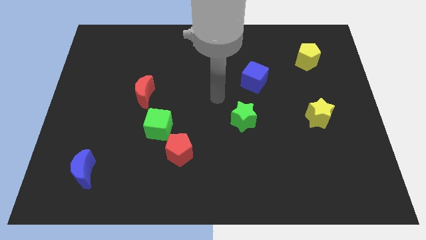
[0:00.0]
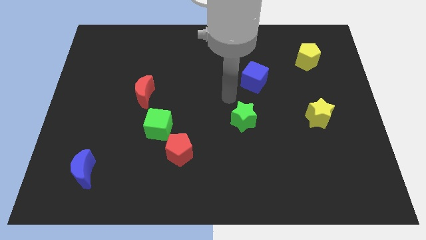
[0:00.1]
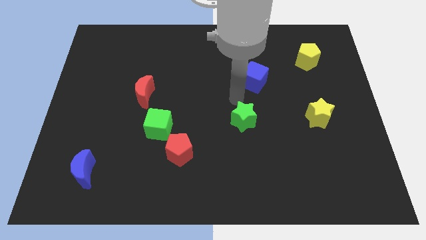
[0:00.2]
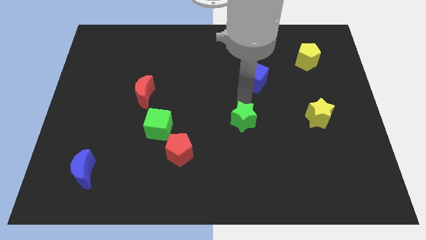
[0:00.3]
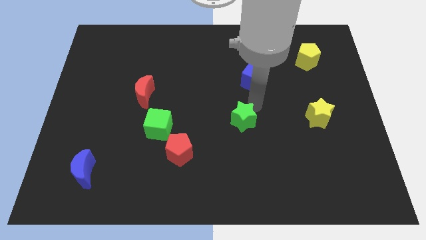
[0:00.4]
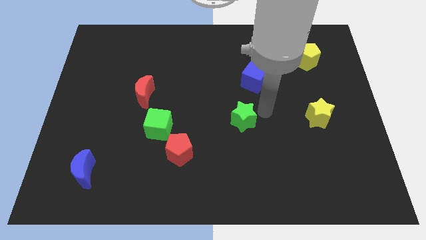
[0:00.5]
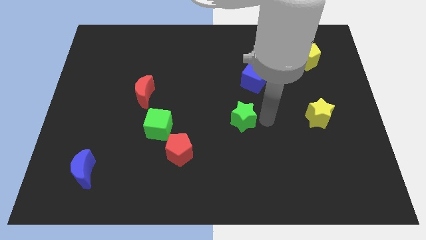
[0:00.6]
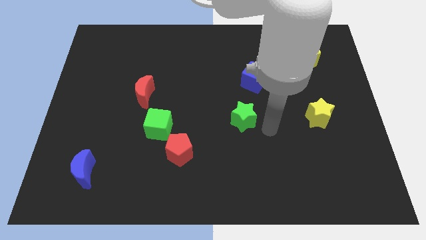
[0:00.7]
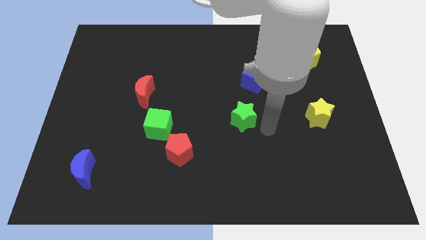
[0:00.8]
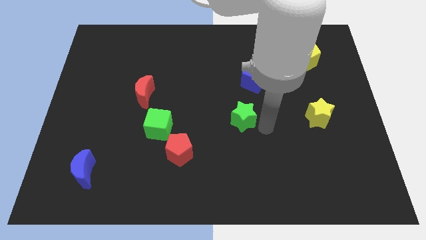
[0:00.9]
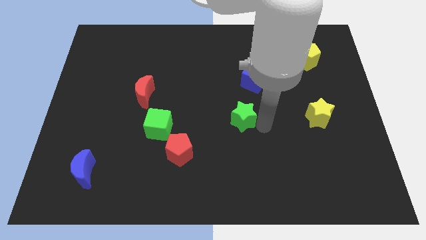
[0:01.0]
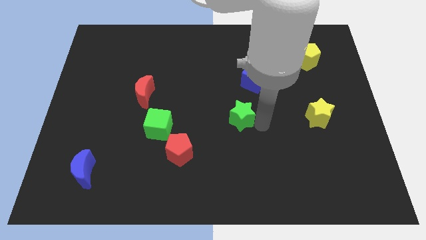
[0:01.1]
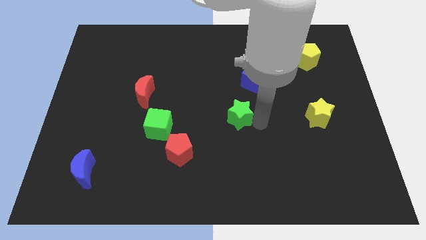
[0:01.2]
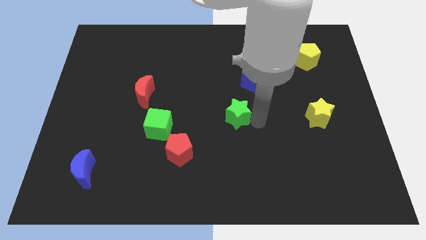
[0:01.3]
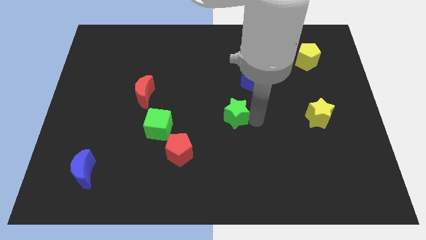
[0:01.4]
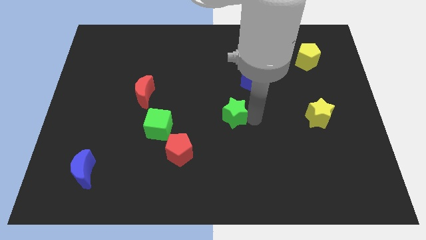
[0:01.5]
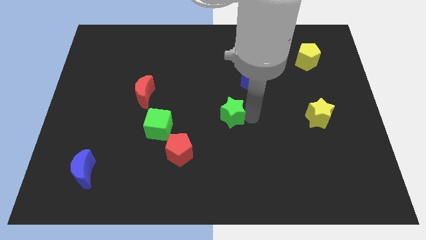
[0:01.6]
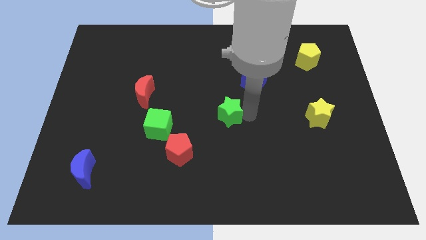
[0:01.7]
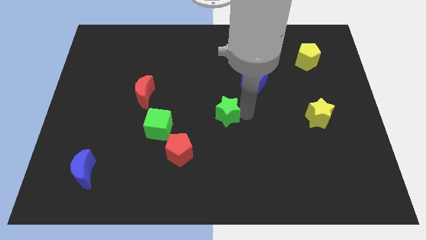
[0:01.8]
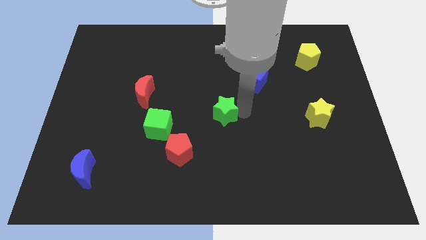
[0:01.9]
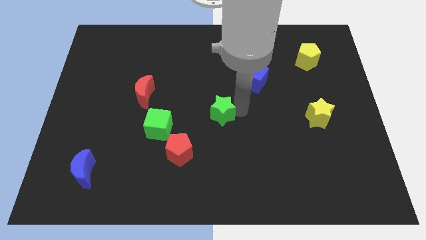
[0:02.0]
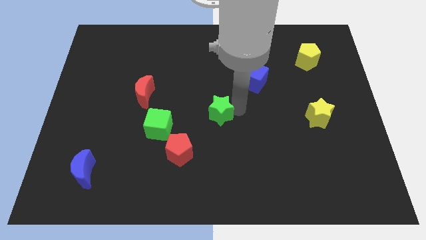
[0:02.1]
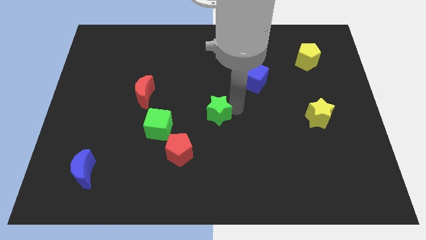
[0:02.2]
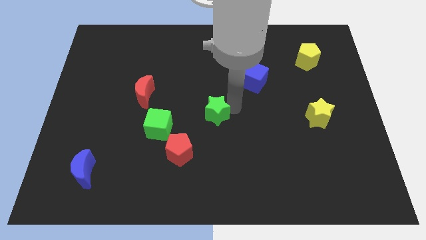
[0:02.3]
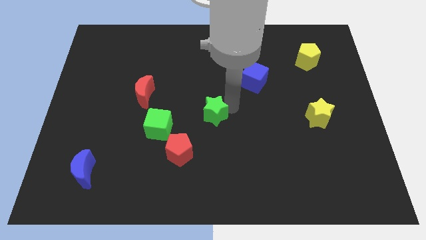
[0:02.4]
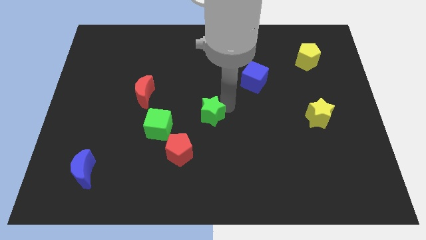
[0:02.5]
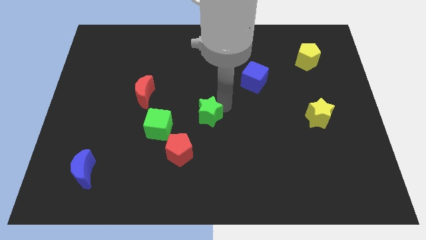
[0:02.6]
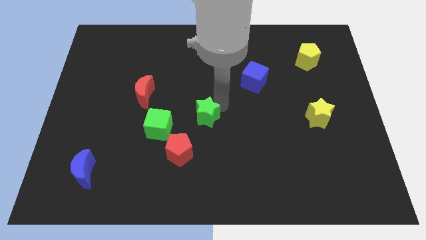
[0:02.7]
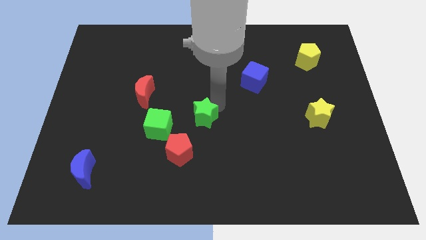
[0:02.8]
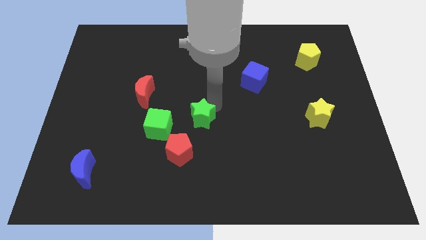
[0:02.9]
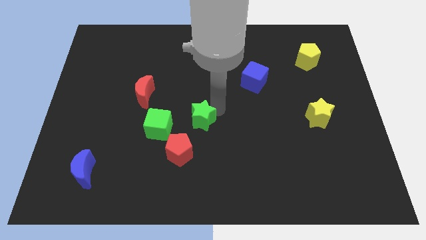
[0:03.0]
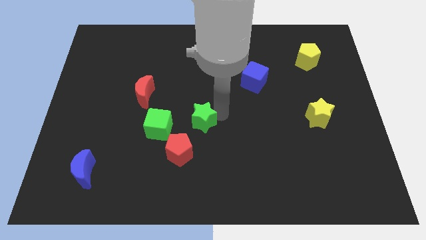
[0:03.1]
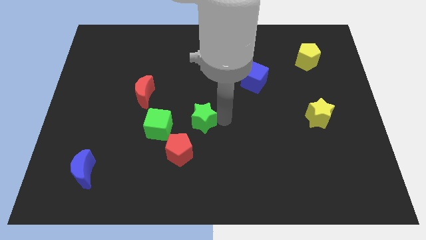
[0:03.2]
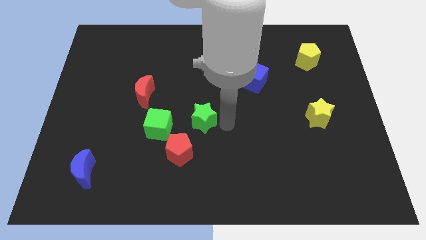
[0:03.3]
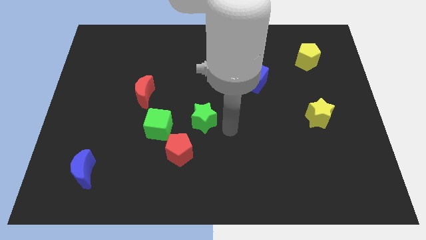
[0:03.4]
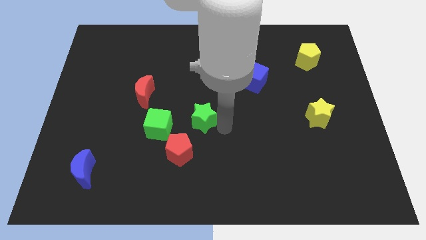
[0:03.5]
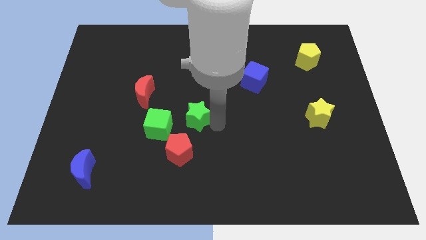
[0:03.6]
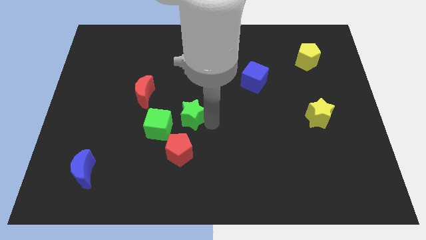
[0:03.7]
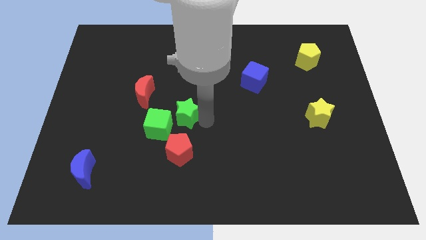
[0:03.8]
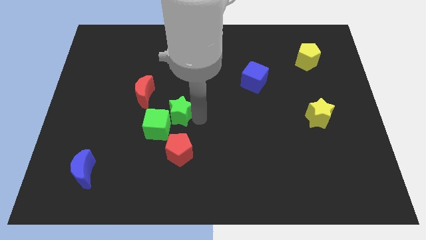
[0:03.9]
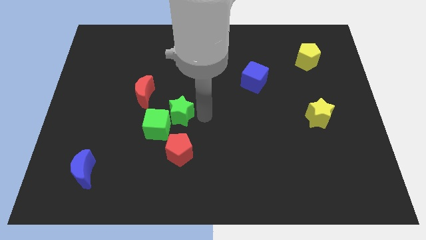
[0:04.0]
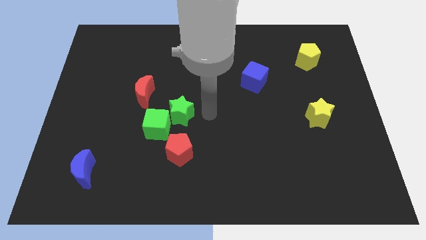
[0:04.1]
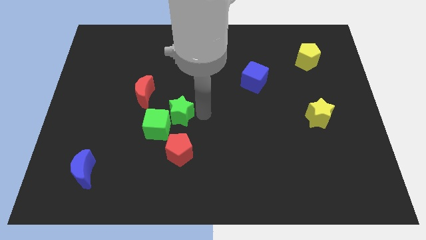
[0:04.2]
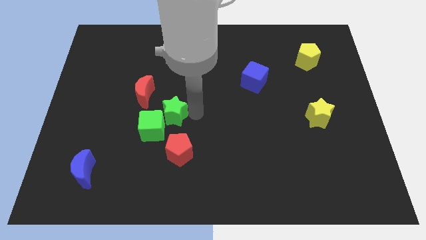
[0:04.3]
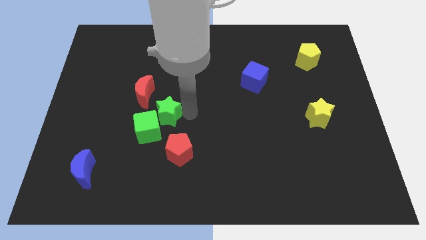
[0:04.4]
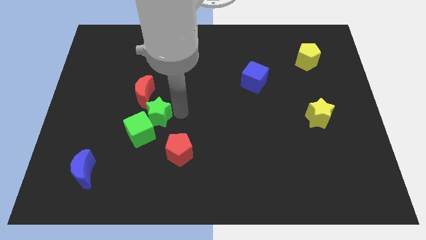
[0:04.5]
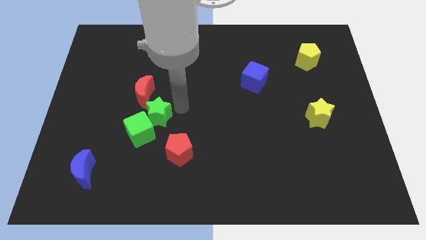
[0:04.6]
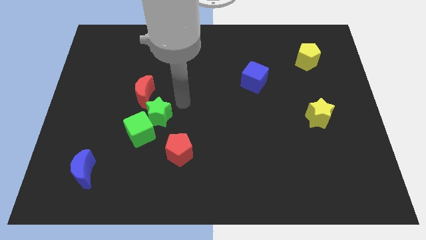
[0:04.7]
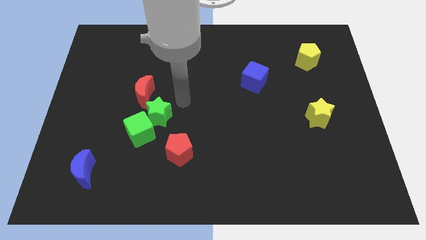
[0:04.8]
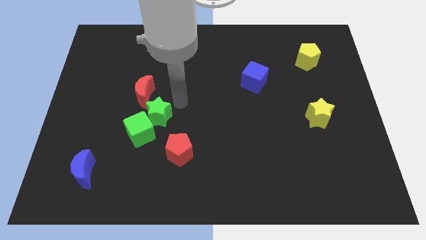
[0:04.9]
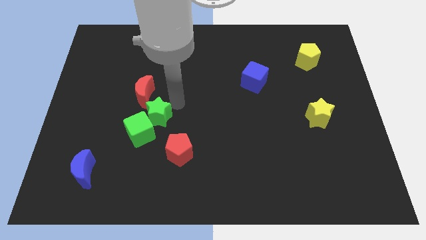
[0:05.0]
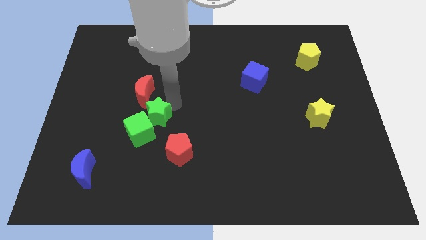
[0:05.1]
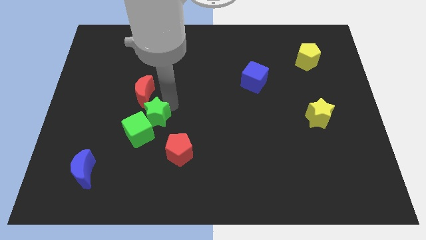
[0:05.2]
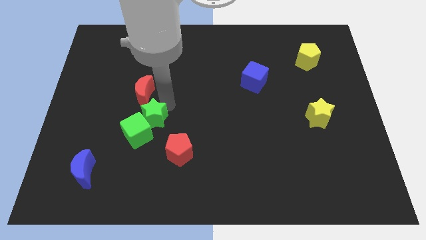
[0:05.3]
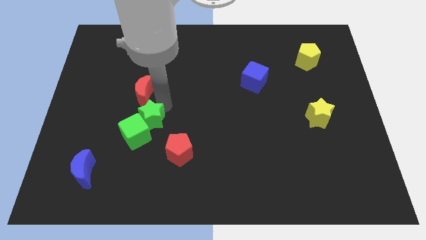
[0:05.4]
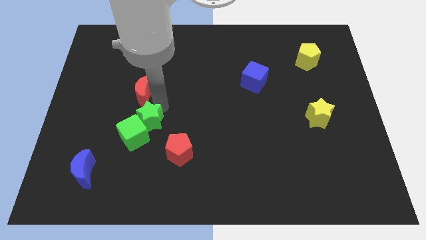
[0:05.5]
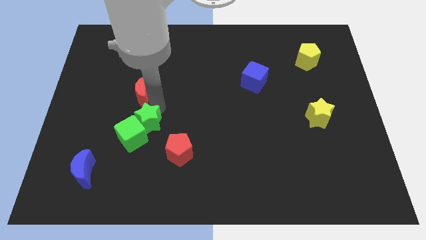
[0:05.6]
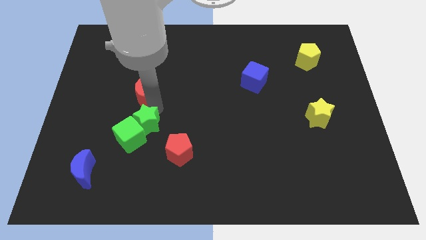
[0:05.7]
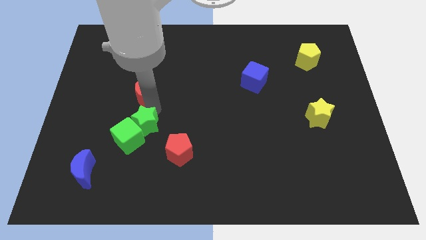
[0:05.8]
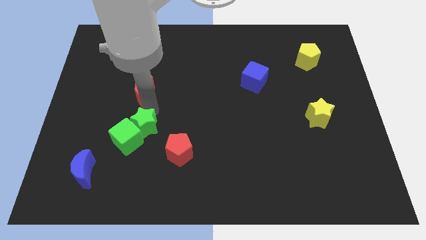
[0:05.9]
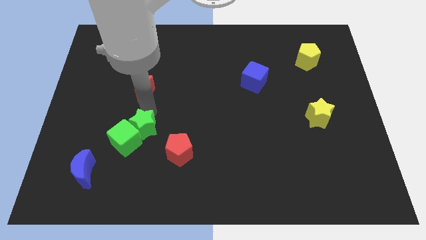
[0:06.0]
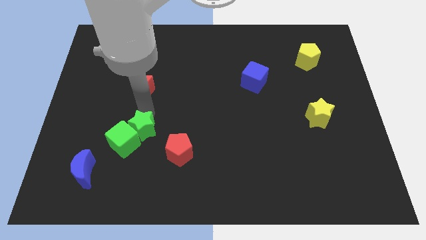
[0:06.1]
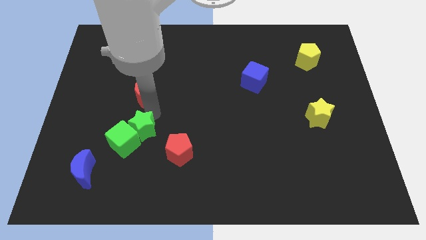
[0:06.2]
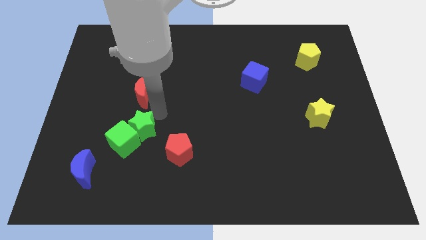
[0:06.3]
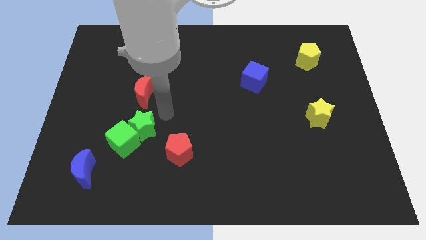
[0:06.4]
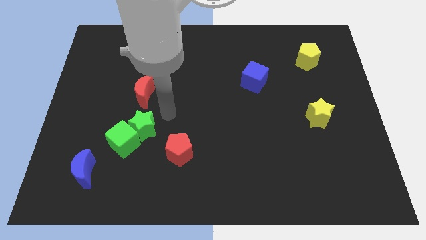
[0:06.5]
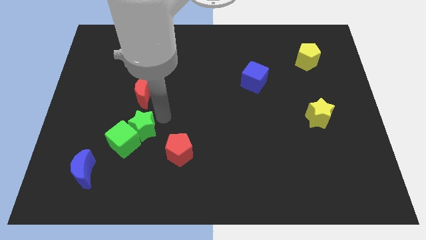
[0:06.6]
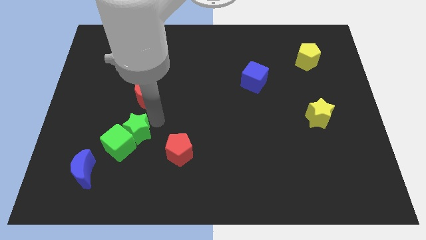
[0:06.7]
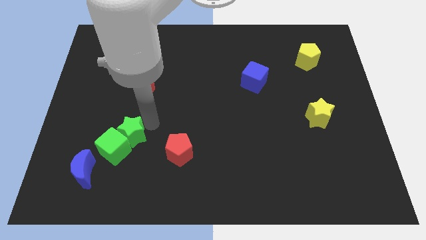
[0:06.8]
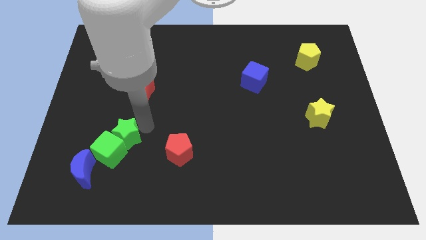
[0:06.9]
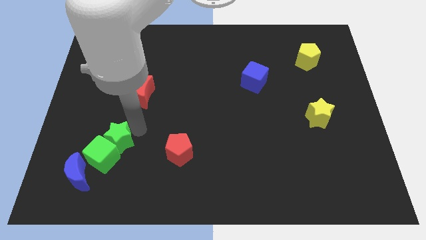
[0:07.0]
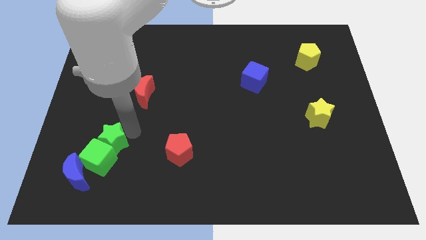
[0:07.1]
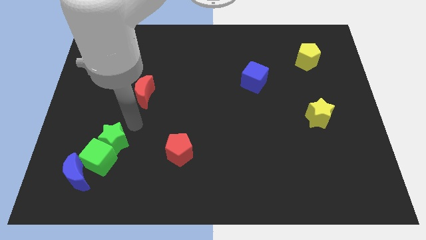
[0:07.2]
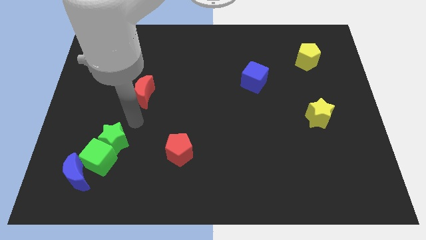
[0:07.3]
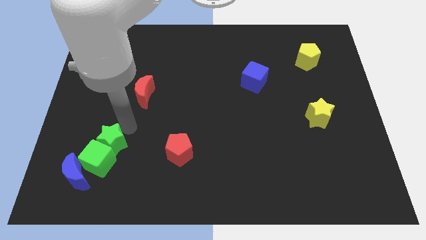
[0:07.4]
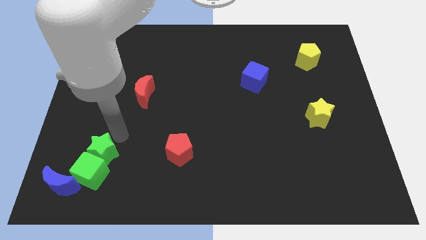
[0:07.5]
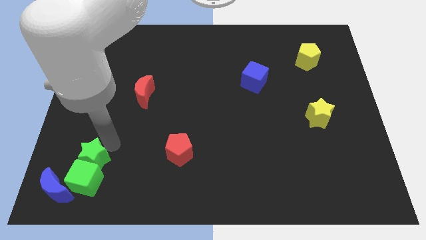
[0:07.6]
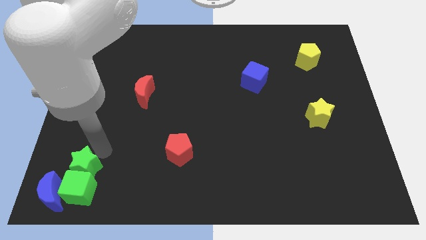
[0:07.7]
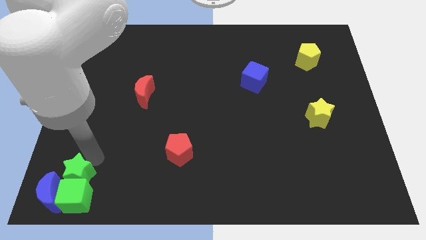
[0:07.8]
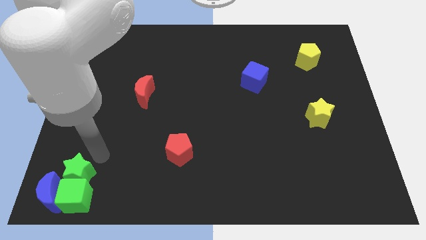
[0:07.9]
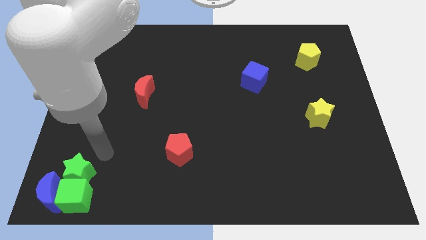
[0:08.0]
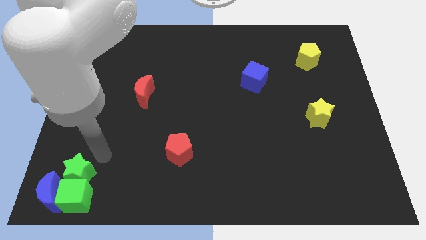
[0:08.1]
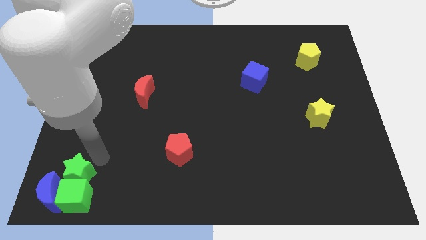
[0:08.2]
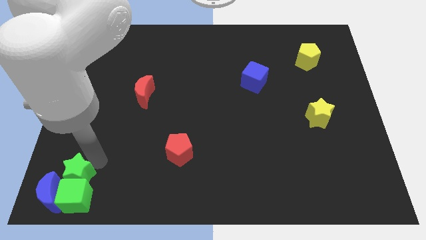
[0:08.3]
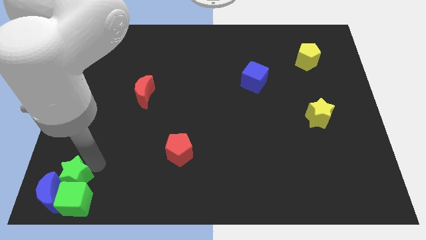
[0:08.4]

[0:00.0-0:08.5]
slide the green star towards the blue moon
